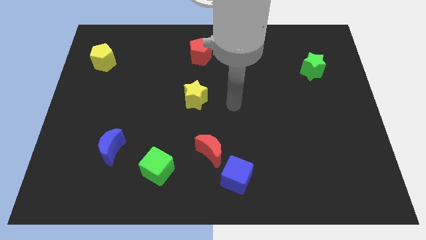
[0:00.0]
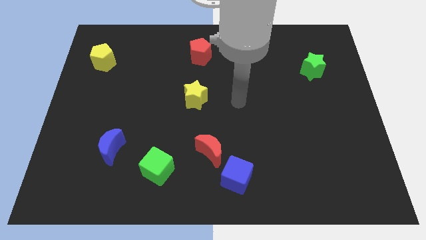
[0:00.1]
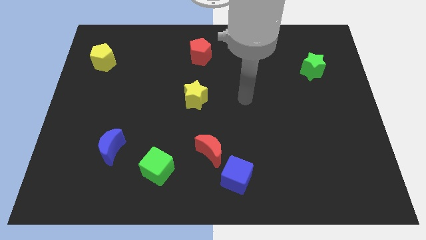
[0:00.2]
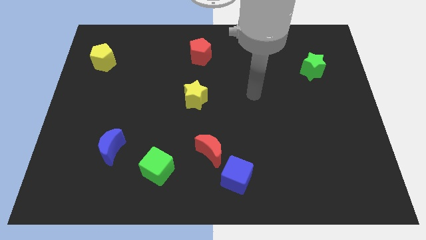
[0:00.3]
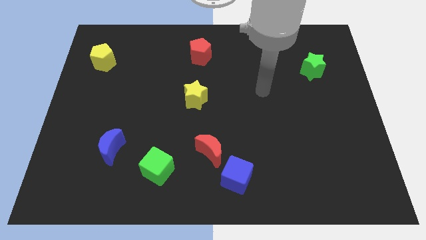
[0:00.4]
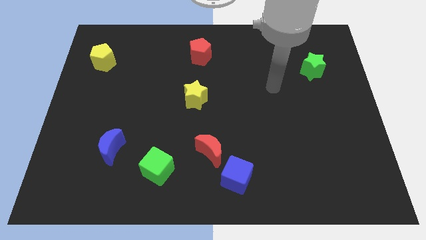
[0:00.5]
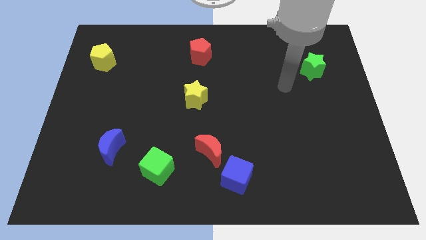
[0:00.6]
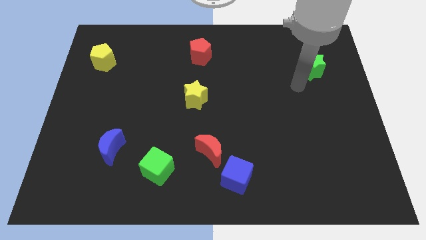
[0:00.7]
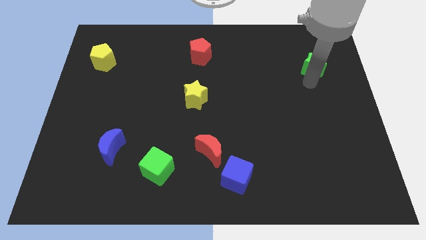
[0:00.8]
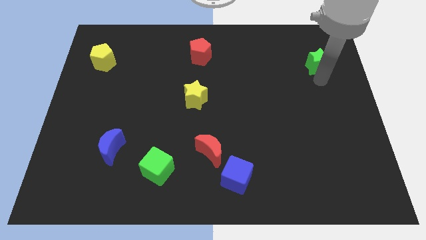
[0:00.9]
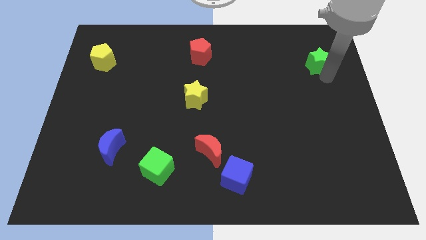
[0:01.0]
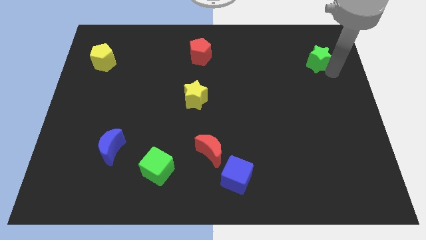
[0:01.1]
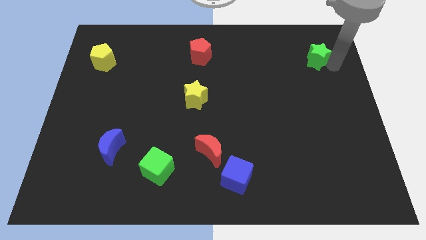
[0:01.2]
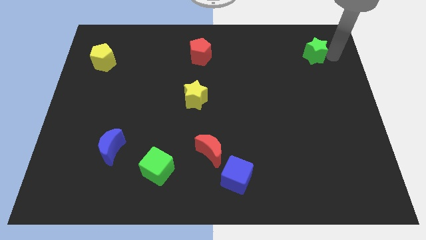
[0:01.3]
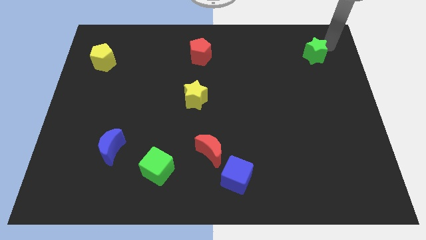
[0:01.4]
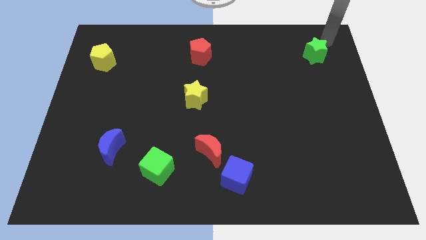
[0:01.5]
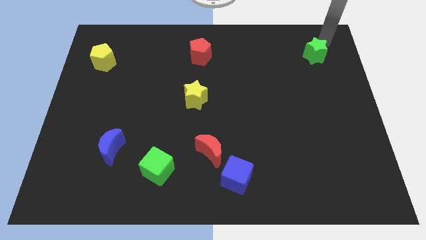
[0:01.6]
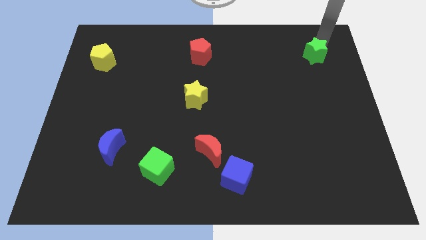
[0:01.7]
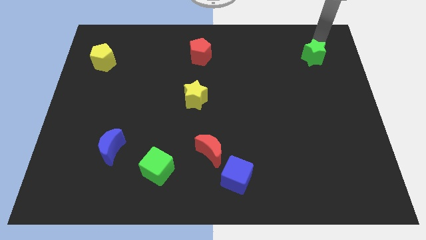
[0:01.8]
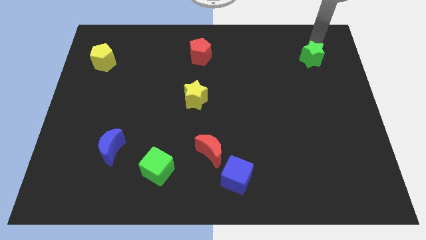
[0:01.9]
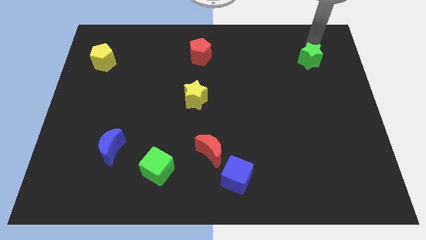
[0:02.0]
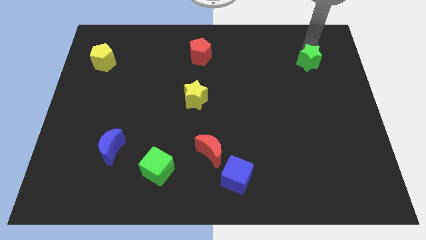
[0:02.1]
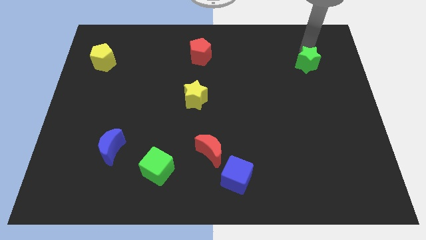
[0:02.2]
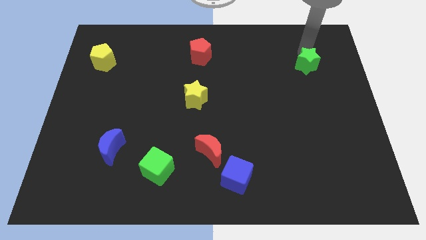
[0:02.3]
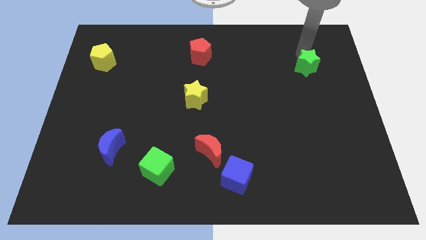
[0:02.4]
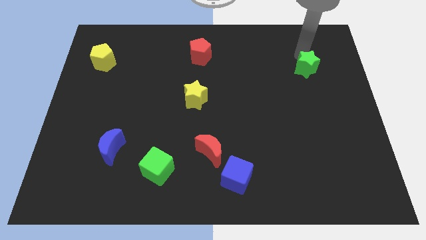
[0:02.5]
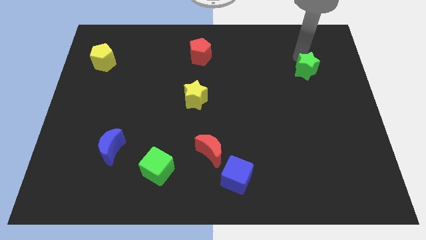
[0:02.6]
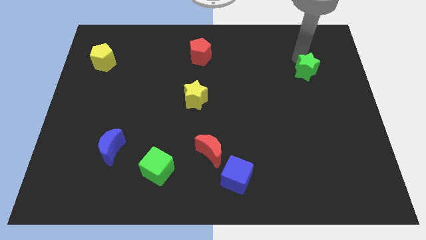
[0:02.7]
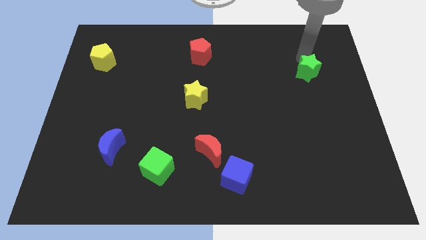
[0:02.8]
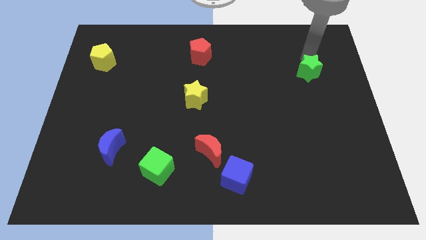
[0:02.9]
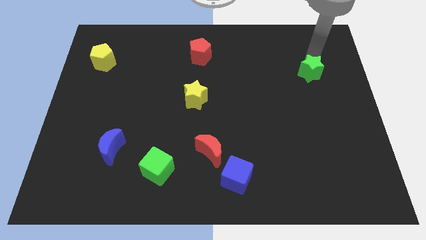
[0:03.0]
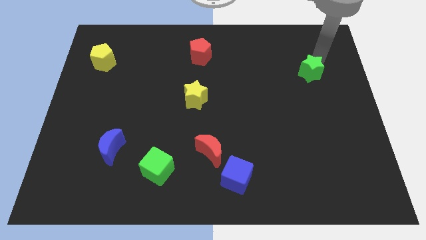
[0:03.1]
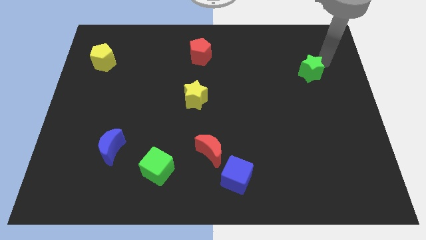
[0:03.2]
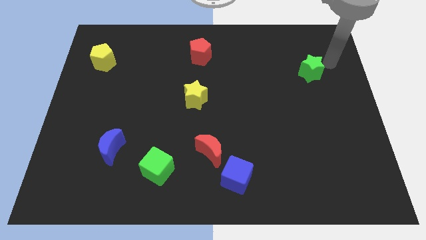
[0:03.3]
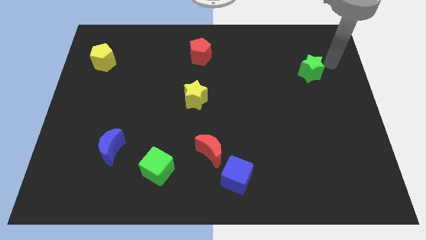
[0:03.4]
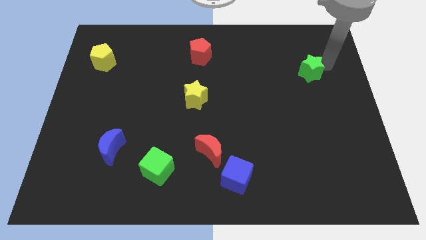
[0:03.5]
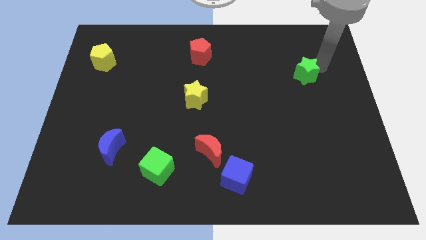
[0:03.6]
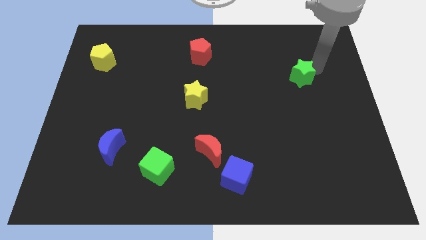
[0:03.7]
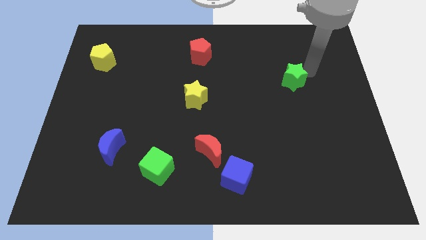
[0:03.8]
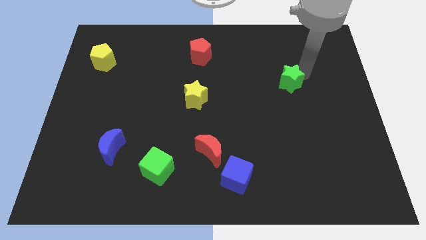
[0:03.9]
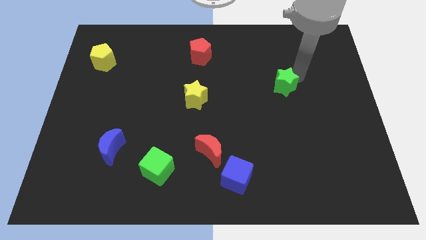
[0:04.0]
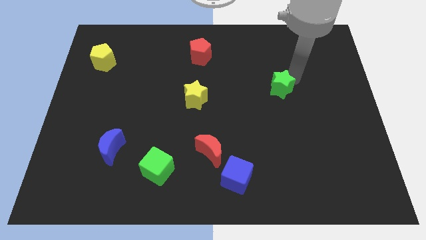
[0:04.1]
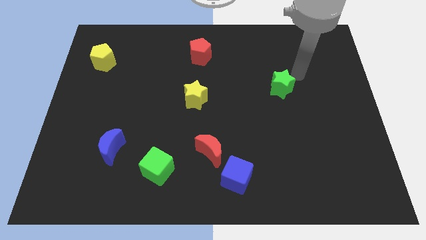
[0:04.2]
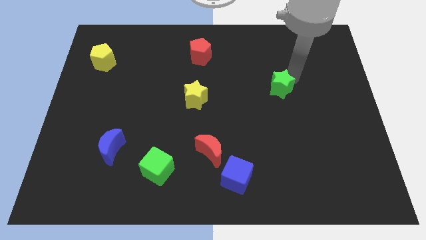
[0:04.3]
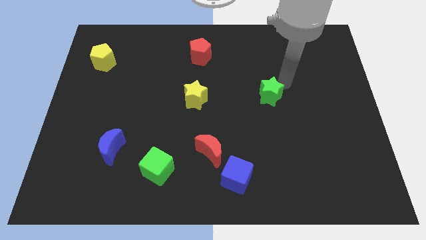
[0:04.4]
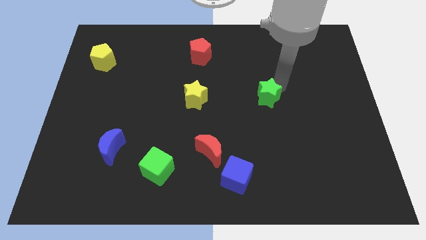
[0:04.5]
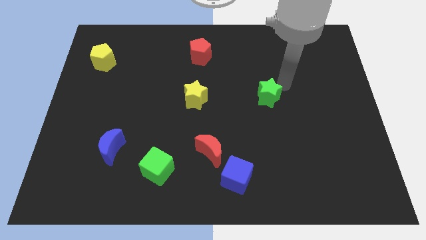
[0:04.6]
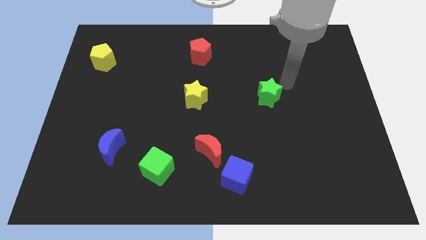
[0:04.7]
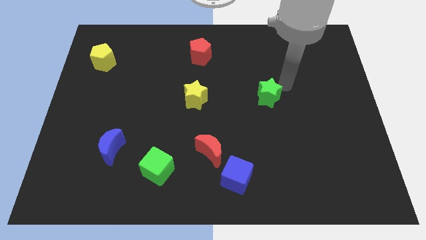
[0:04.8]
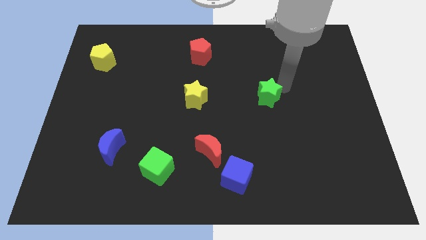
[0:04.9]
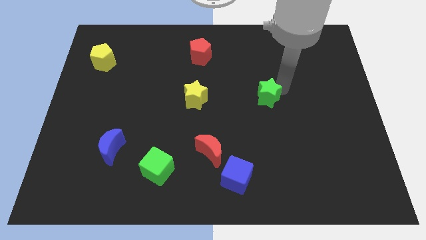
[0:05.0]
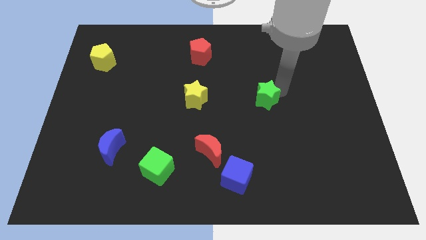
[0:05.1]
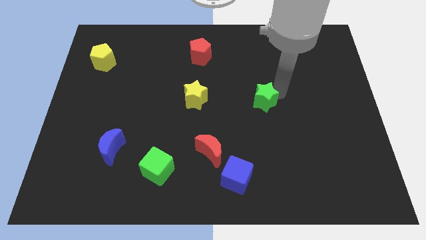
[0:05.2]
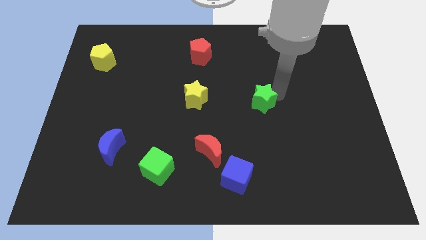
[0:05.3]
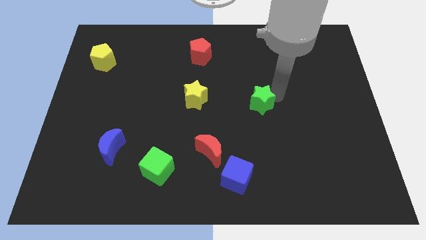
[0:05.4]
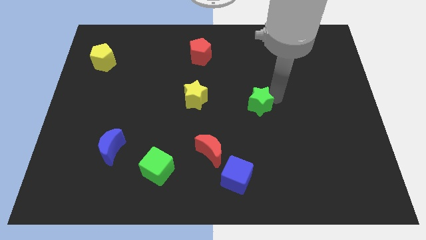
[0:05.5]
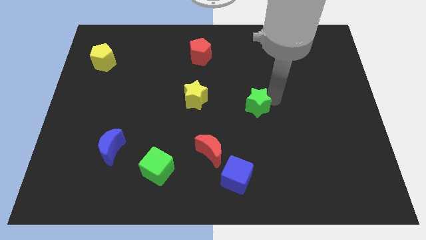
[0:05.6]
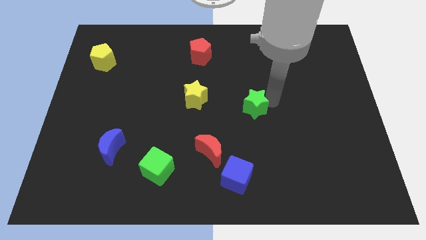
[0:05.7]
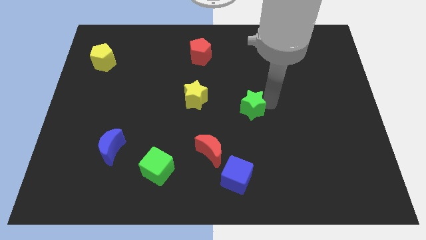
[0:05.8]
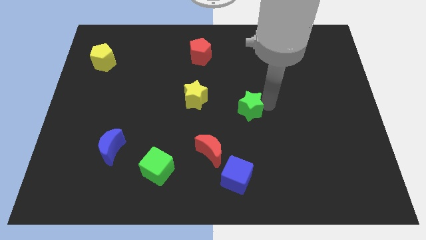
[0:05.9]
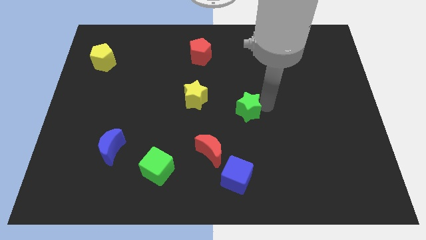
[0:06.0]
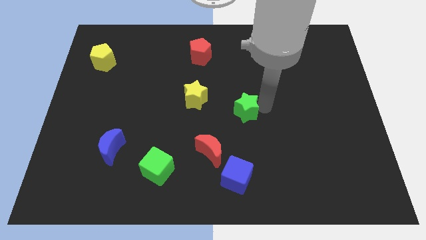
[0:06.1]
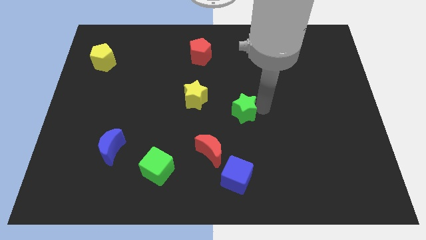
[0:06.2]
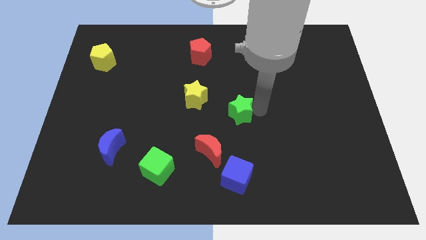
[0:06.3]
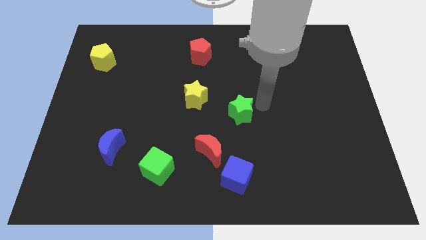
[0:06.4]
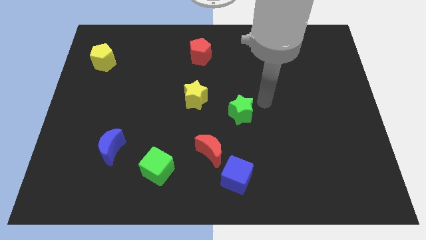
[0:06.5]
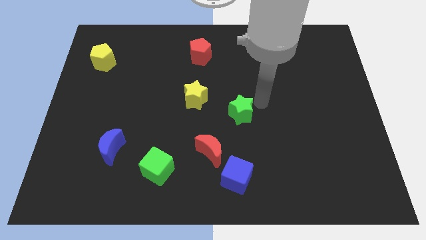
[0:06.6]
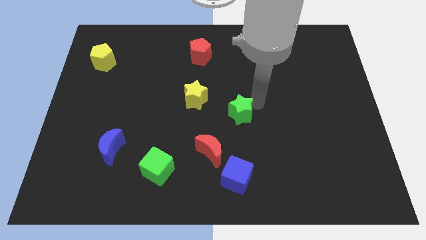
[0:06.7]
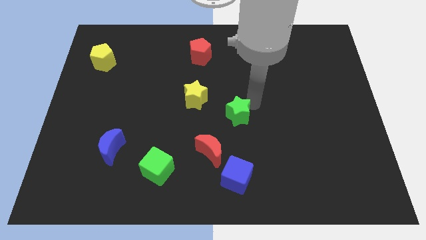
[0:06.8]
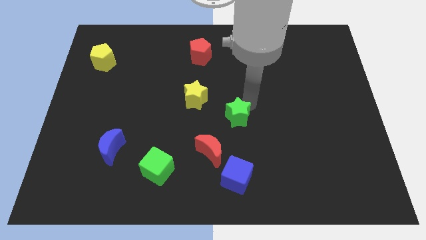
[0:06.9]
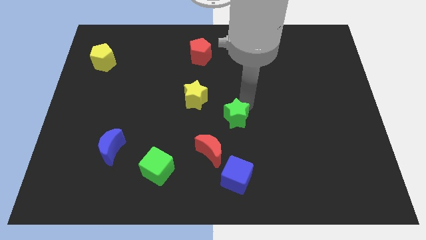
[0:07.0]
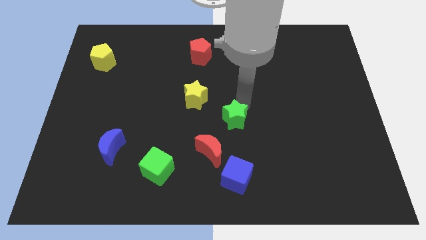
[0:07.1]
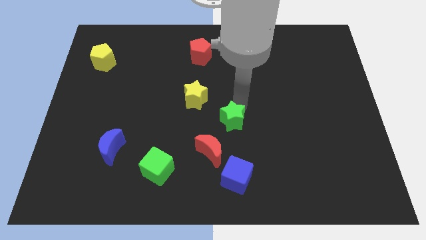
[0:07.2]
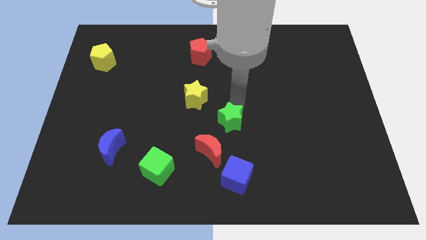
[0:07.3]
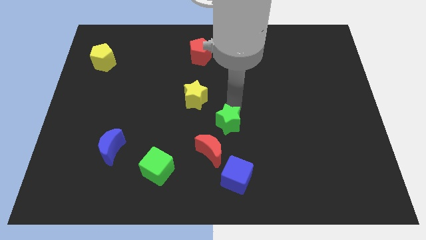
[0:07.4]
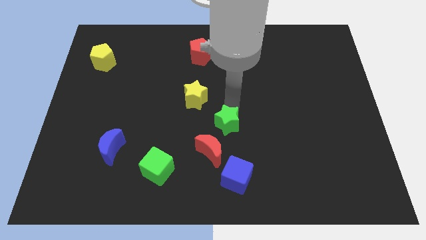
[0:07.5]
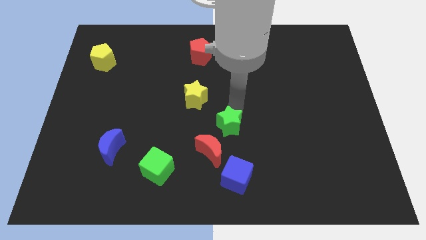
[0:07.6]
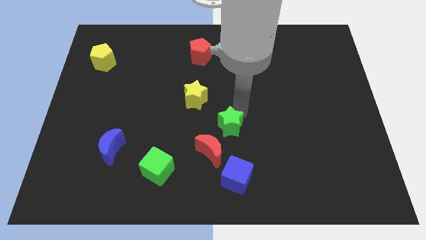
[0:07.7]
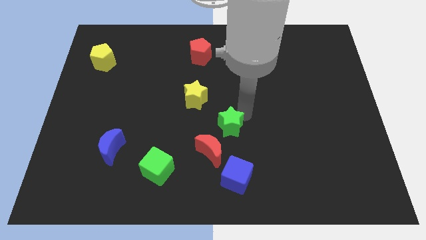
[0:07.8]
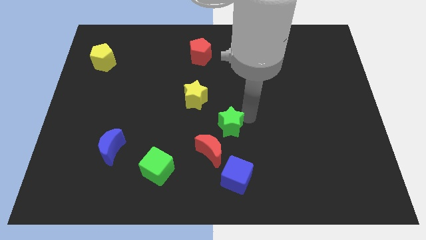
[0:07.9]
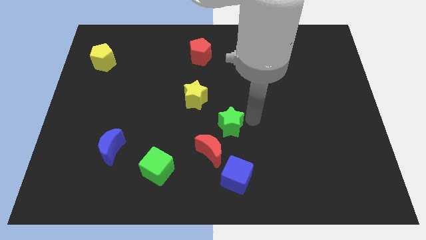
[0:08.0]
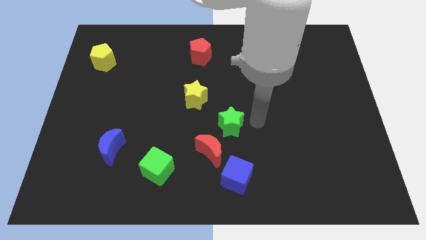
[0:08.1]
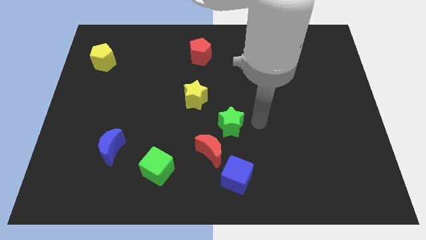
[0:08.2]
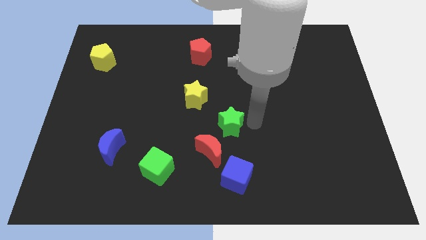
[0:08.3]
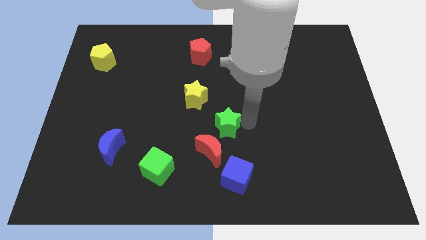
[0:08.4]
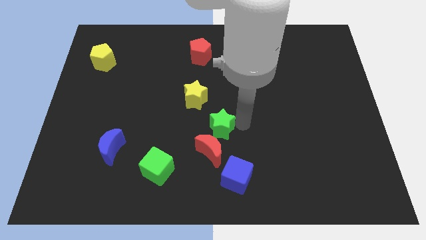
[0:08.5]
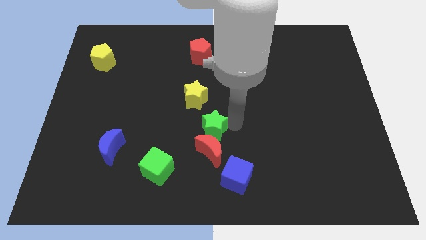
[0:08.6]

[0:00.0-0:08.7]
slide the green star to the bottom side of the yellow star
